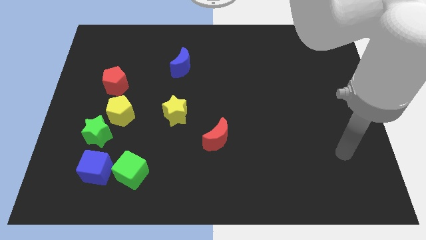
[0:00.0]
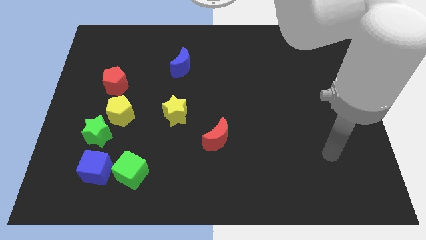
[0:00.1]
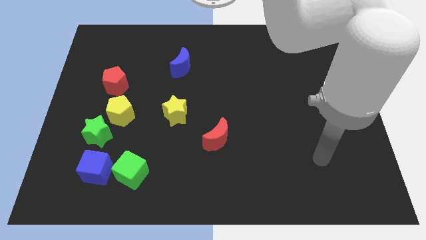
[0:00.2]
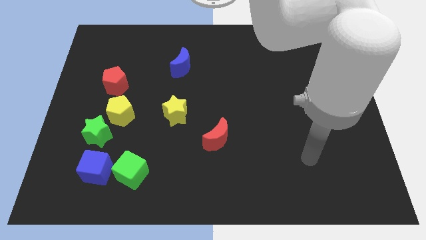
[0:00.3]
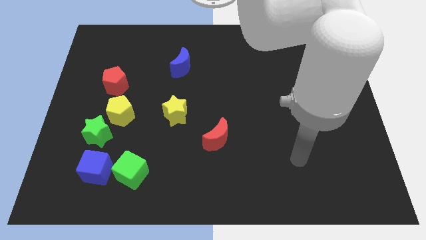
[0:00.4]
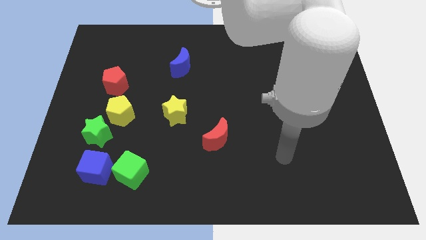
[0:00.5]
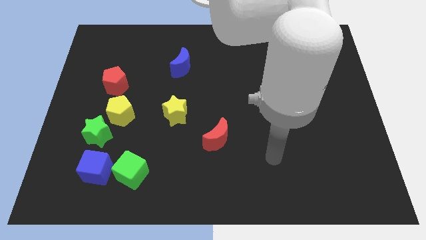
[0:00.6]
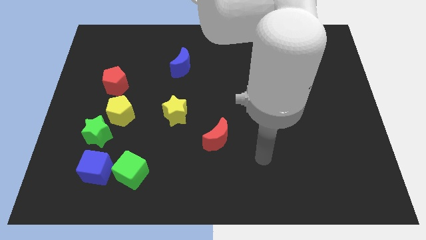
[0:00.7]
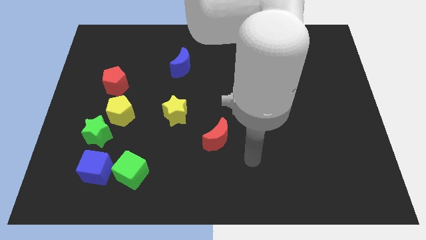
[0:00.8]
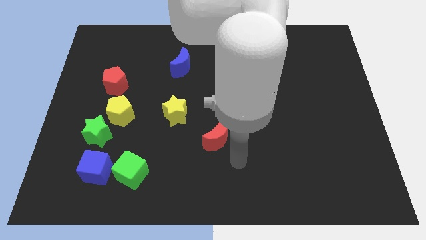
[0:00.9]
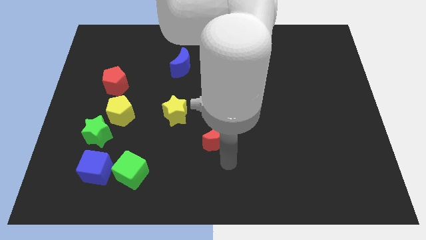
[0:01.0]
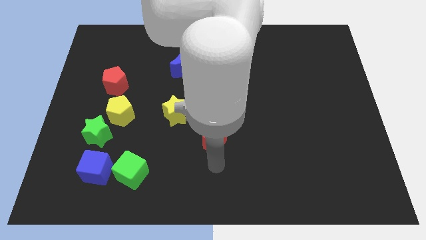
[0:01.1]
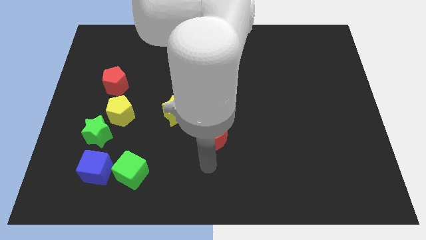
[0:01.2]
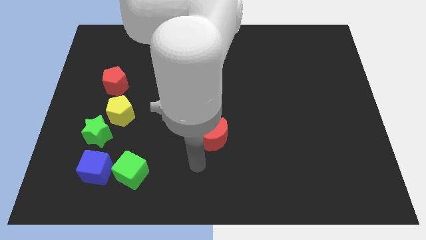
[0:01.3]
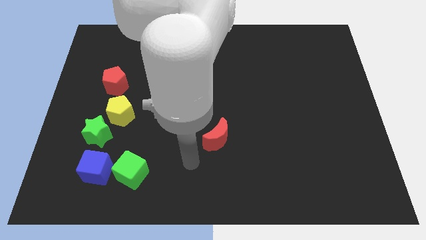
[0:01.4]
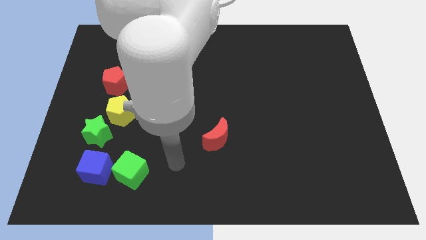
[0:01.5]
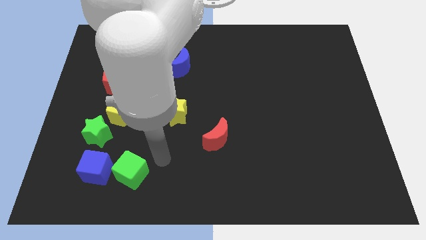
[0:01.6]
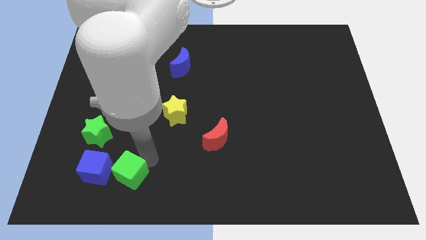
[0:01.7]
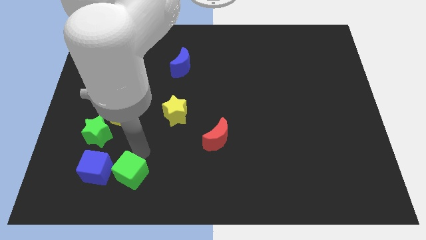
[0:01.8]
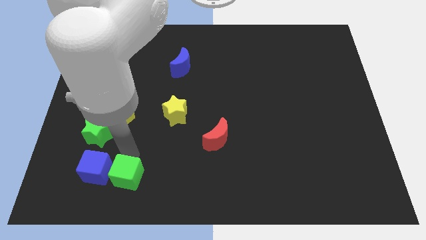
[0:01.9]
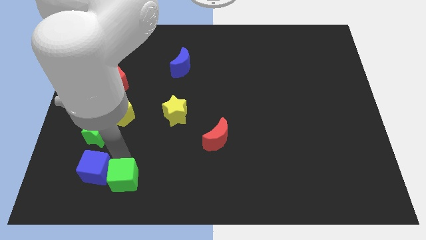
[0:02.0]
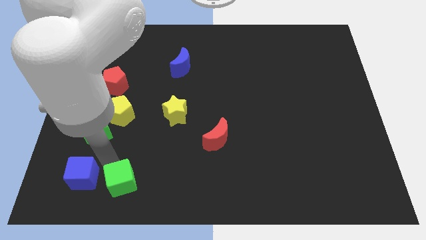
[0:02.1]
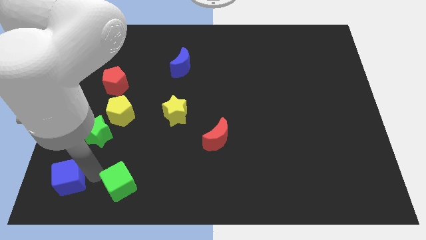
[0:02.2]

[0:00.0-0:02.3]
pull the green cube apart from the blue cube

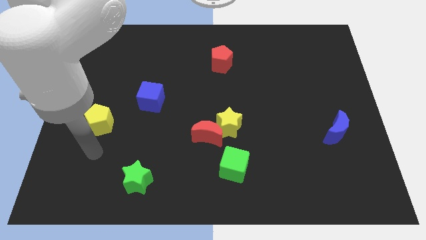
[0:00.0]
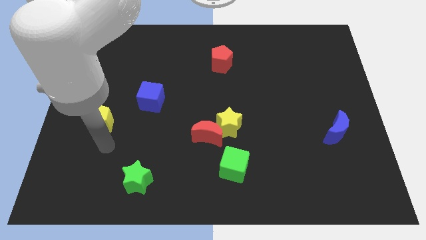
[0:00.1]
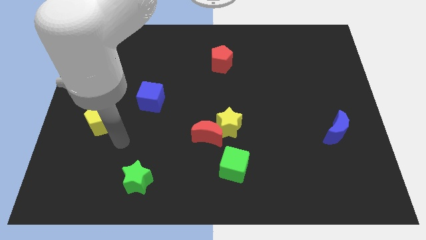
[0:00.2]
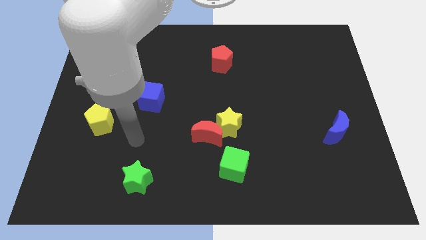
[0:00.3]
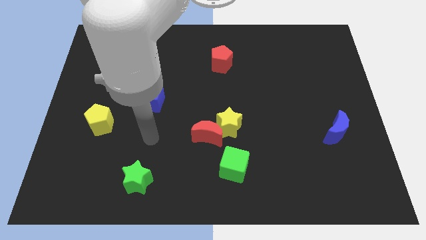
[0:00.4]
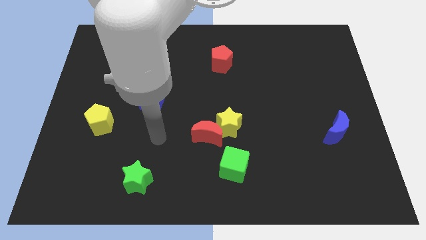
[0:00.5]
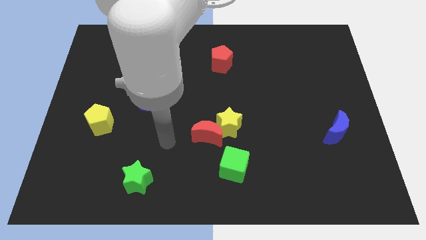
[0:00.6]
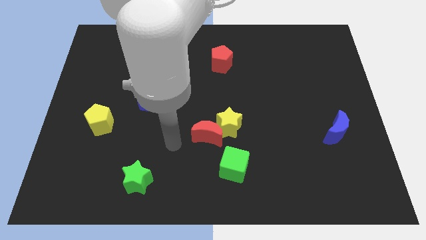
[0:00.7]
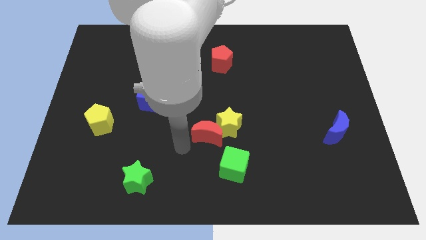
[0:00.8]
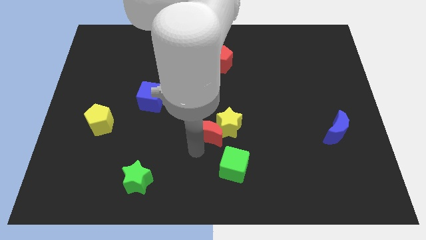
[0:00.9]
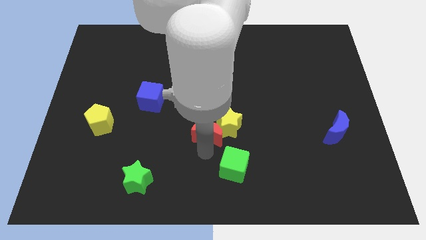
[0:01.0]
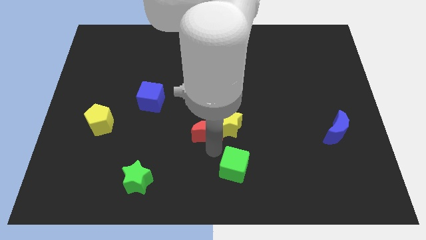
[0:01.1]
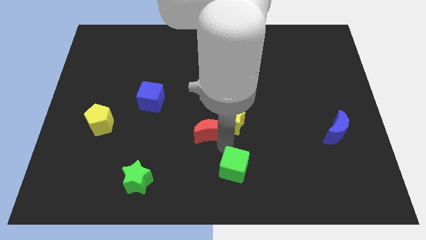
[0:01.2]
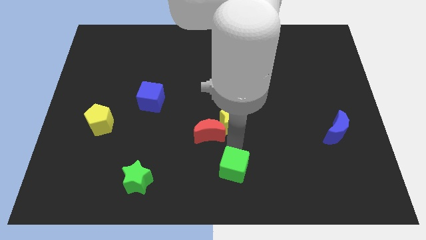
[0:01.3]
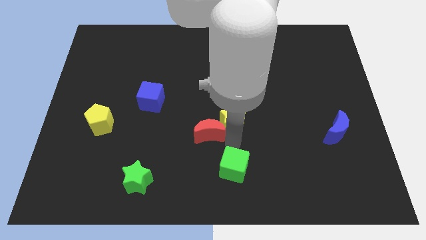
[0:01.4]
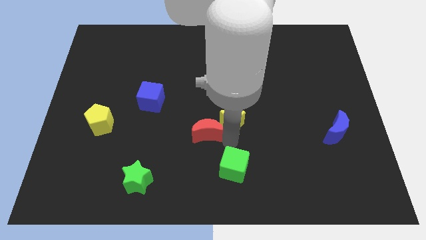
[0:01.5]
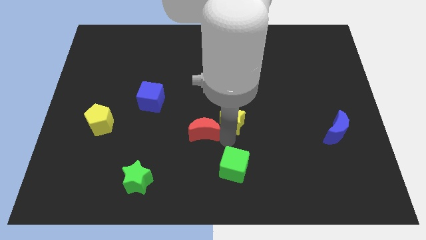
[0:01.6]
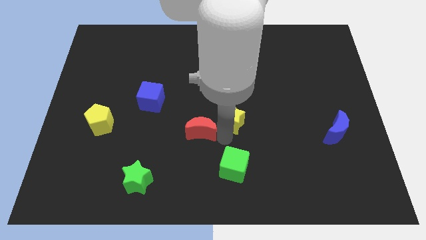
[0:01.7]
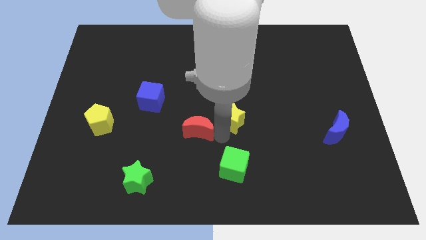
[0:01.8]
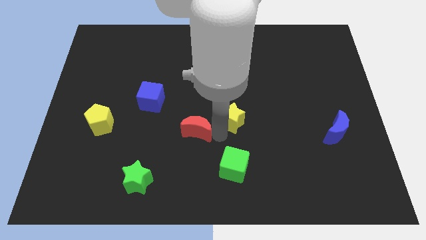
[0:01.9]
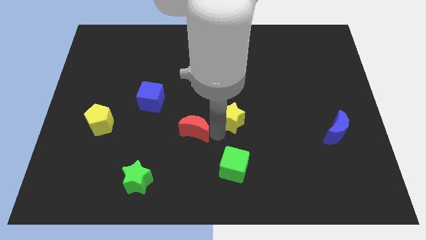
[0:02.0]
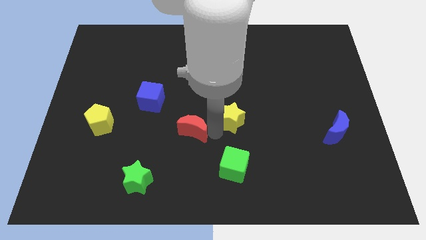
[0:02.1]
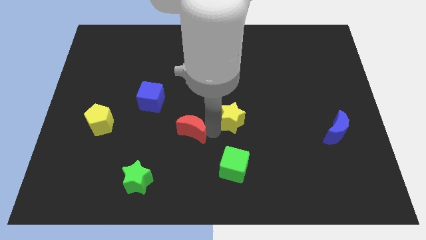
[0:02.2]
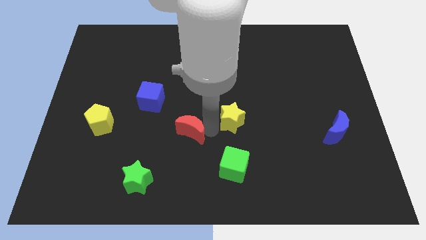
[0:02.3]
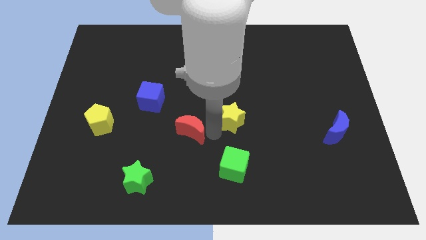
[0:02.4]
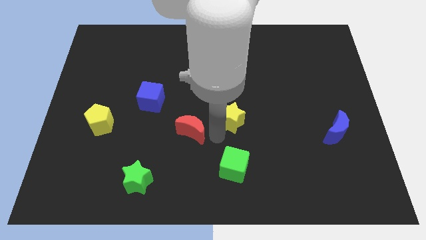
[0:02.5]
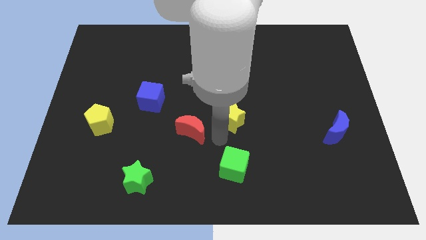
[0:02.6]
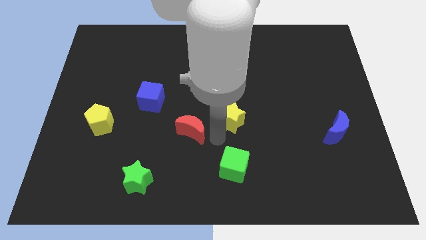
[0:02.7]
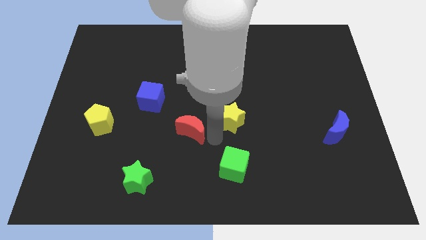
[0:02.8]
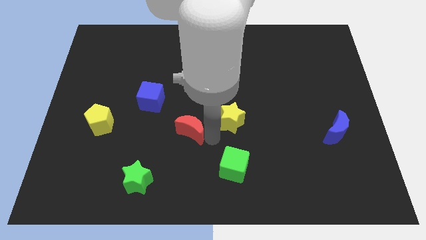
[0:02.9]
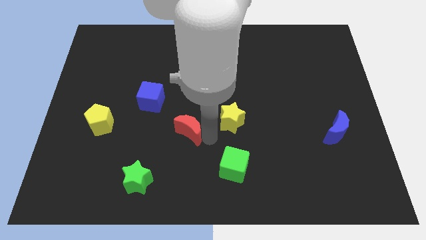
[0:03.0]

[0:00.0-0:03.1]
pull the red moon apart from the yellow star and green cube

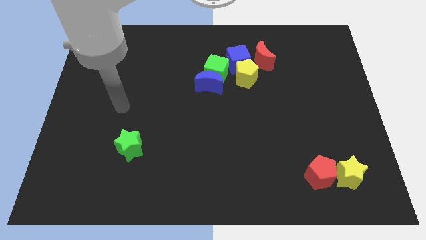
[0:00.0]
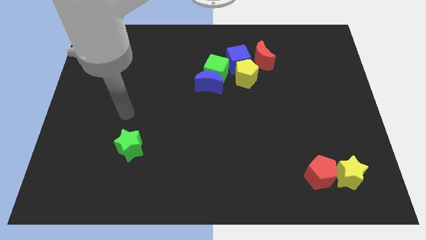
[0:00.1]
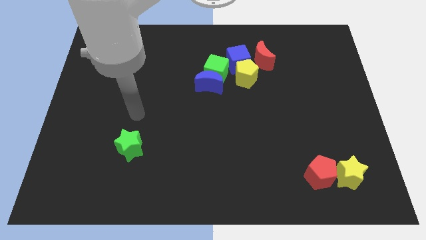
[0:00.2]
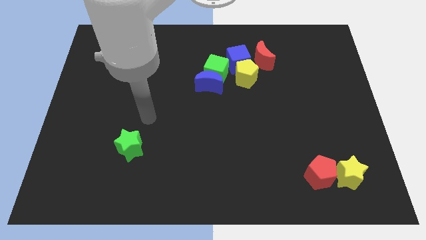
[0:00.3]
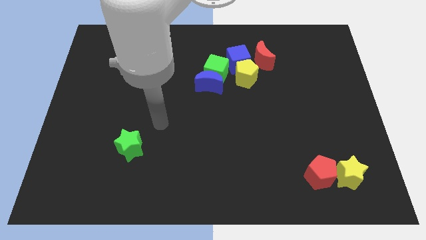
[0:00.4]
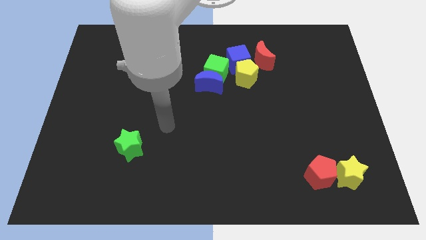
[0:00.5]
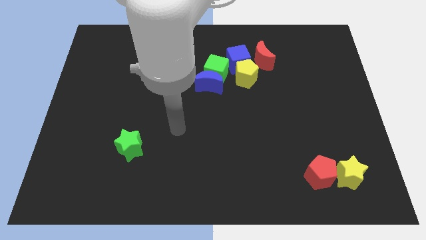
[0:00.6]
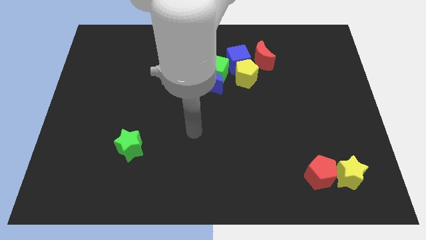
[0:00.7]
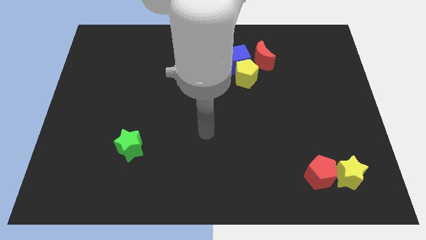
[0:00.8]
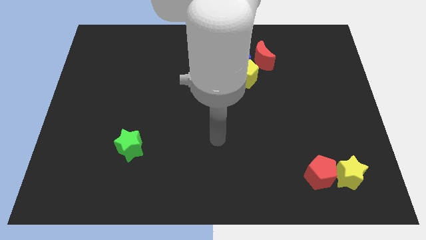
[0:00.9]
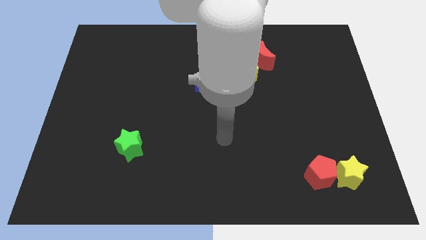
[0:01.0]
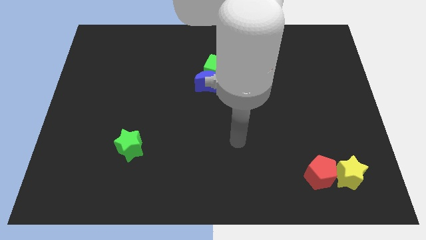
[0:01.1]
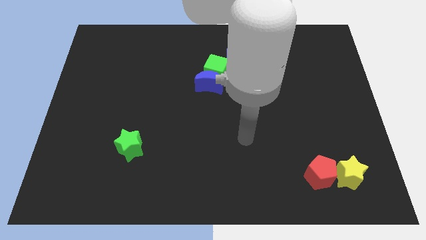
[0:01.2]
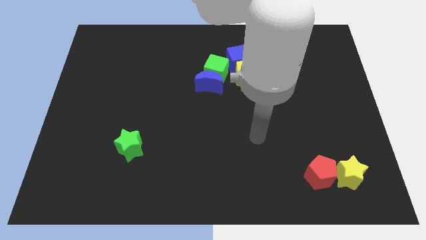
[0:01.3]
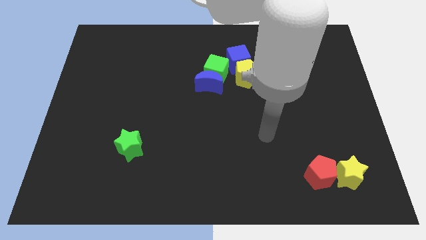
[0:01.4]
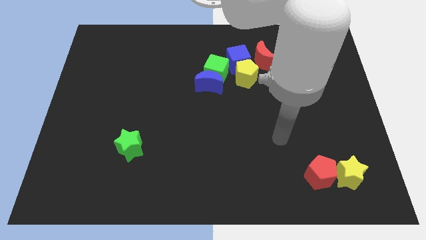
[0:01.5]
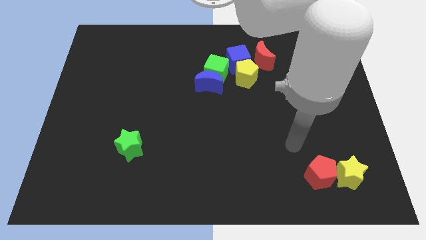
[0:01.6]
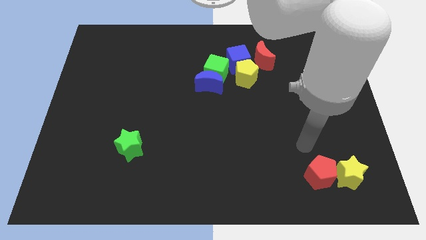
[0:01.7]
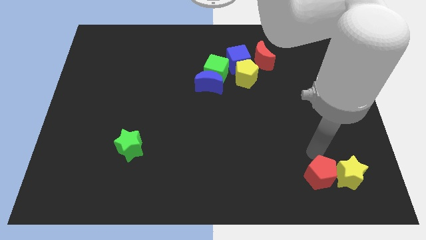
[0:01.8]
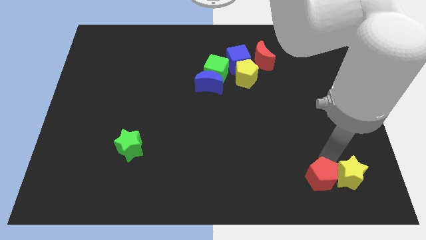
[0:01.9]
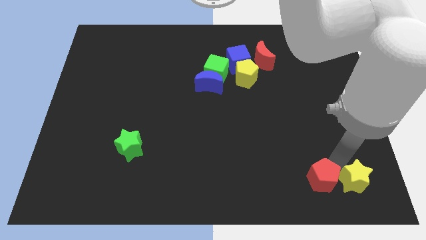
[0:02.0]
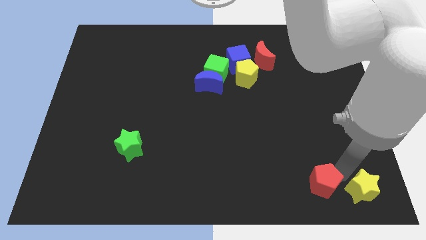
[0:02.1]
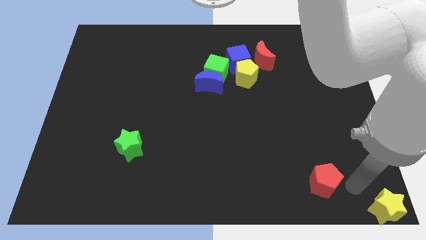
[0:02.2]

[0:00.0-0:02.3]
move the red pentagon away from the yellow star

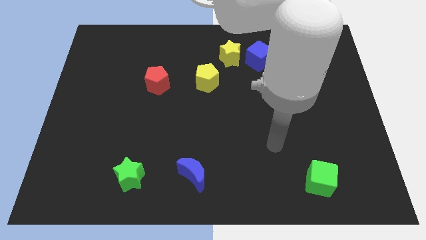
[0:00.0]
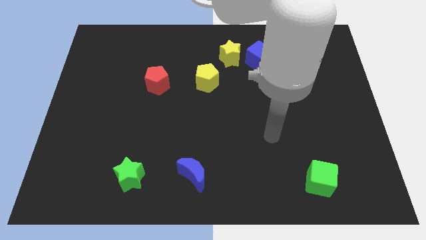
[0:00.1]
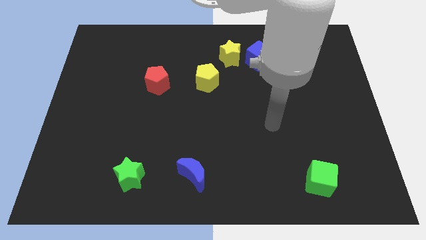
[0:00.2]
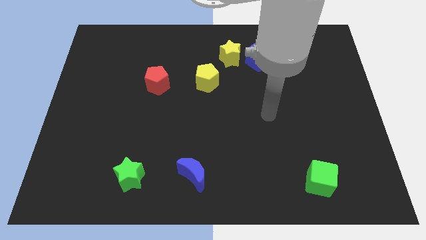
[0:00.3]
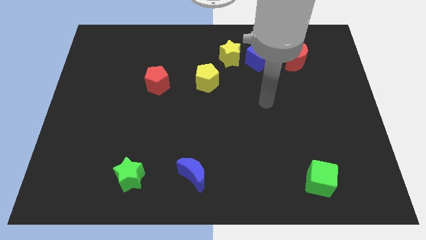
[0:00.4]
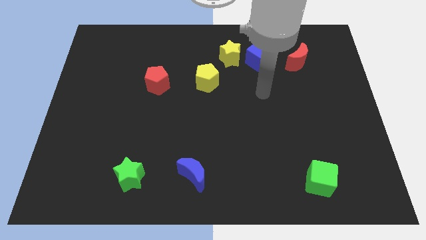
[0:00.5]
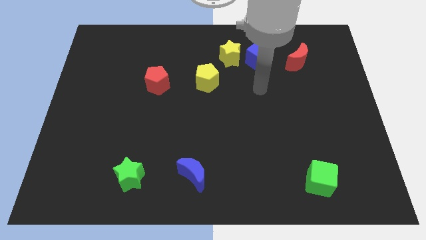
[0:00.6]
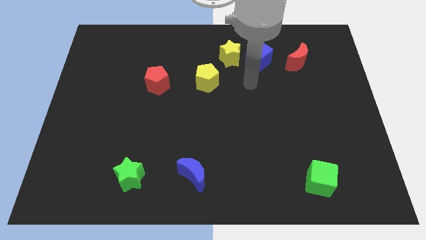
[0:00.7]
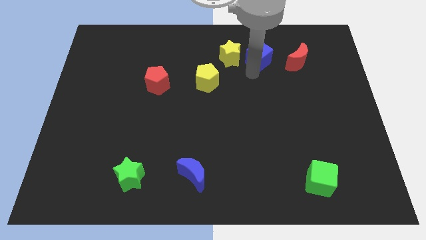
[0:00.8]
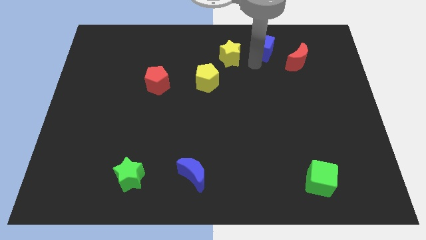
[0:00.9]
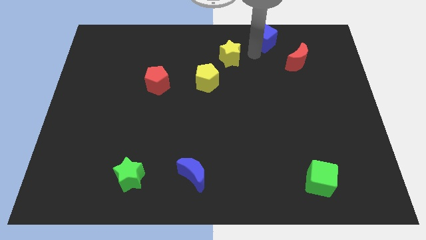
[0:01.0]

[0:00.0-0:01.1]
move the yellow star away from the blue cube

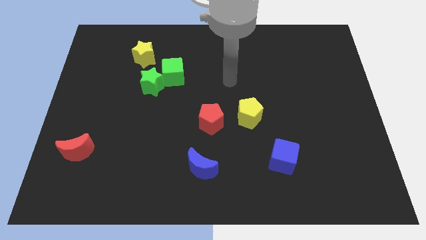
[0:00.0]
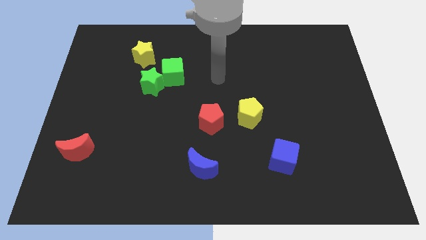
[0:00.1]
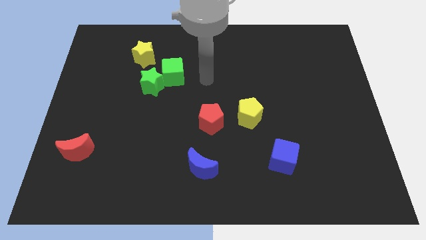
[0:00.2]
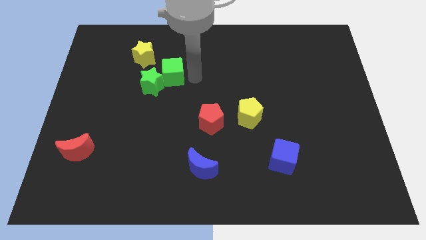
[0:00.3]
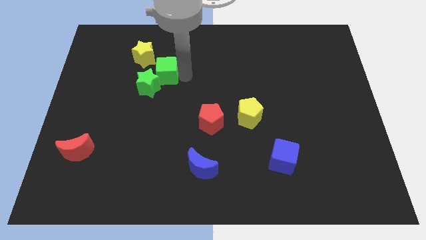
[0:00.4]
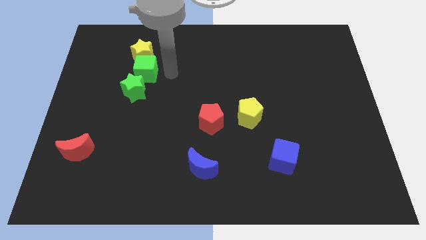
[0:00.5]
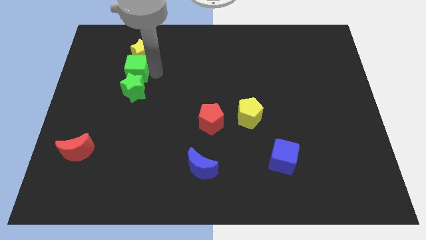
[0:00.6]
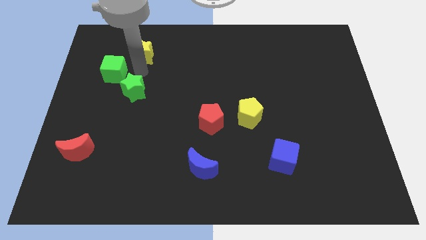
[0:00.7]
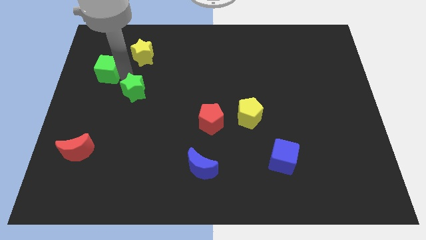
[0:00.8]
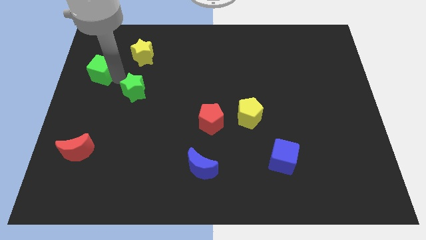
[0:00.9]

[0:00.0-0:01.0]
move the green star away from the green cube
